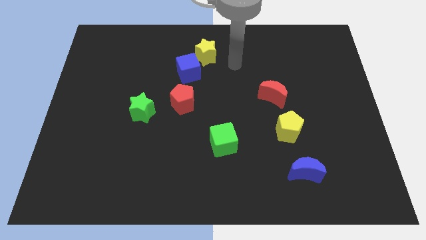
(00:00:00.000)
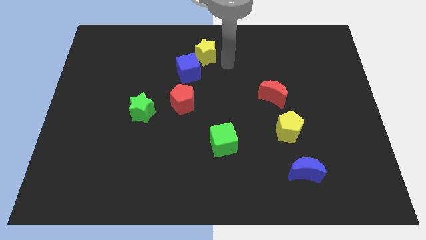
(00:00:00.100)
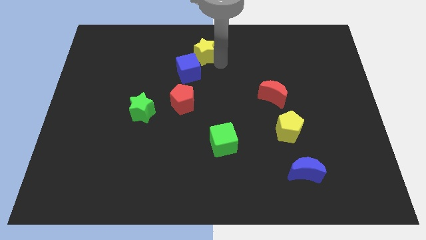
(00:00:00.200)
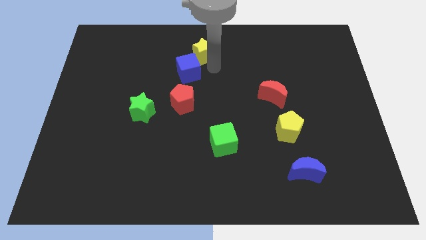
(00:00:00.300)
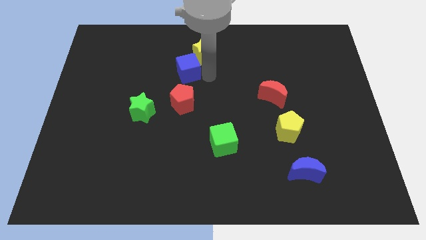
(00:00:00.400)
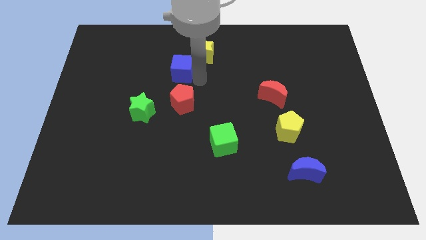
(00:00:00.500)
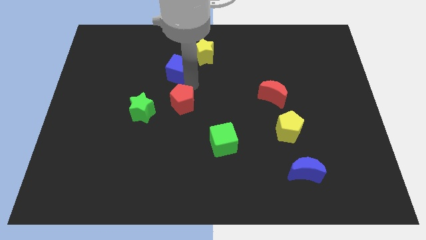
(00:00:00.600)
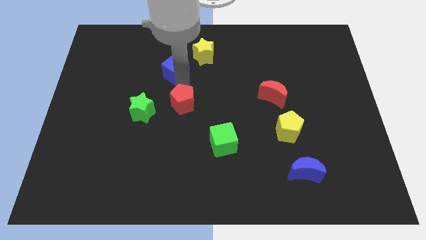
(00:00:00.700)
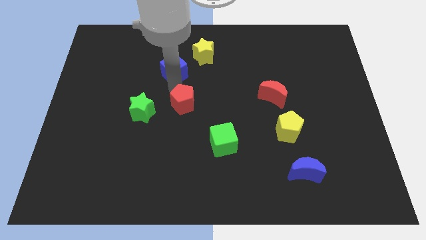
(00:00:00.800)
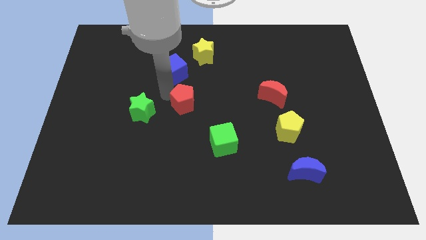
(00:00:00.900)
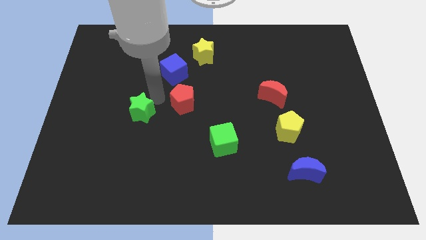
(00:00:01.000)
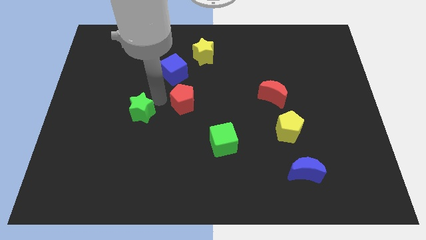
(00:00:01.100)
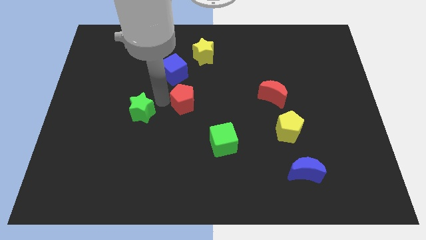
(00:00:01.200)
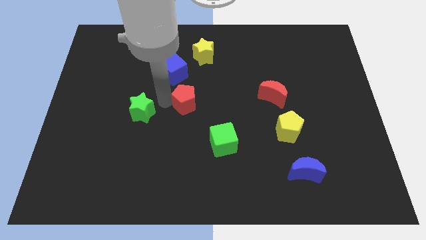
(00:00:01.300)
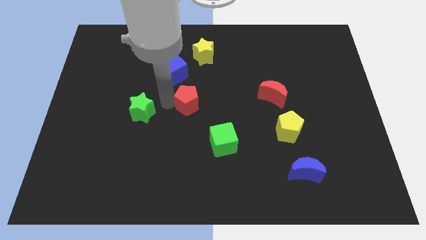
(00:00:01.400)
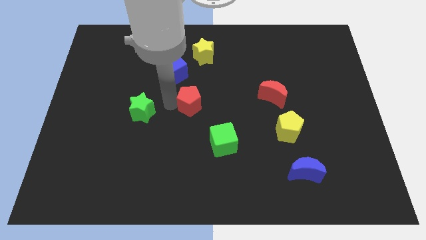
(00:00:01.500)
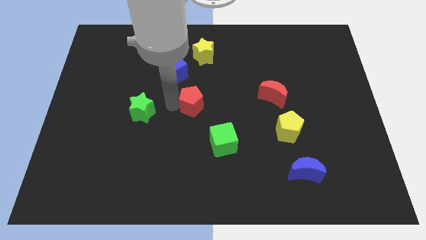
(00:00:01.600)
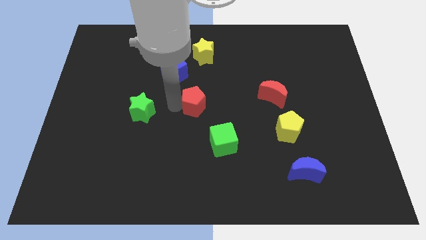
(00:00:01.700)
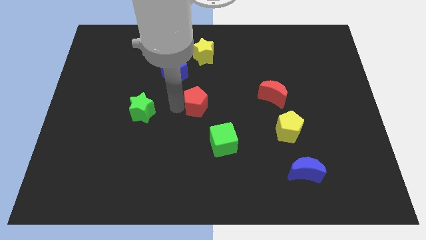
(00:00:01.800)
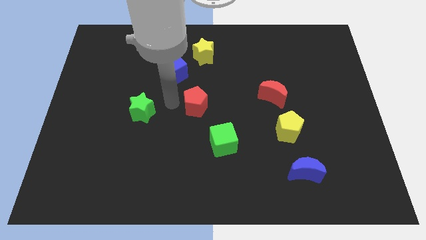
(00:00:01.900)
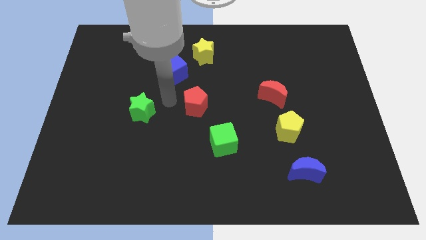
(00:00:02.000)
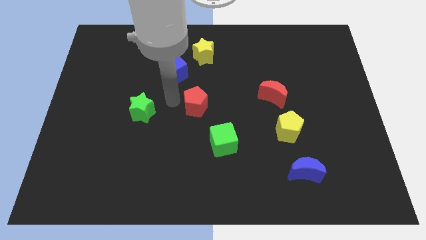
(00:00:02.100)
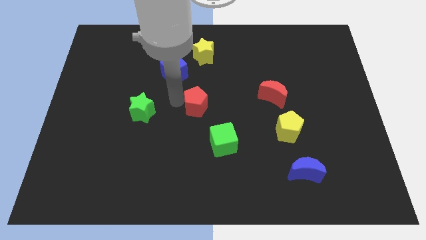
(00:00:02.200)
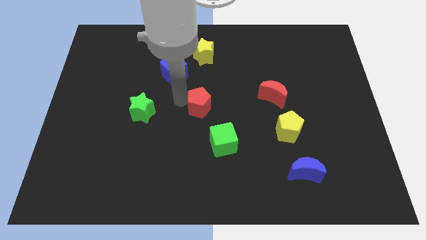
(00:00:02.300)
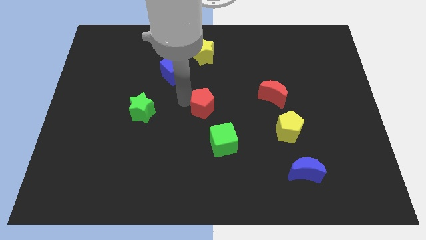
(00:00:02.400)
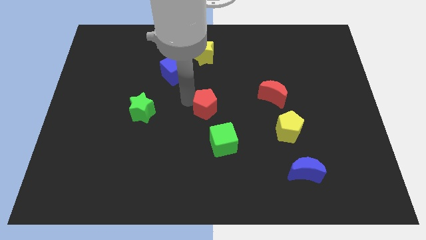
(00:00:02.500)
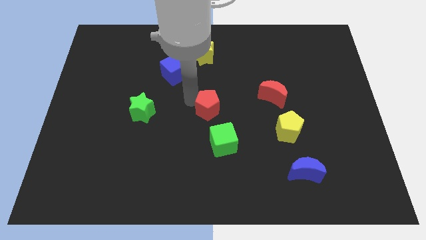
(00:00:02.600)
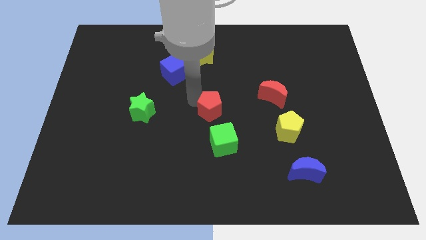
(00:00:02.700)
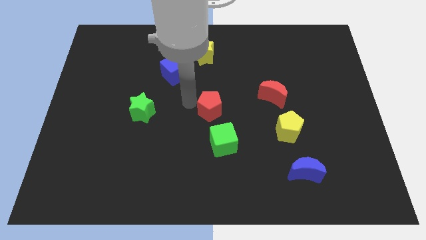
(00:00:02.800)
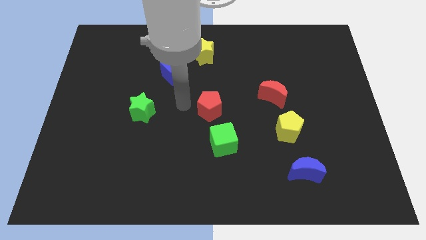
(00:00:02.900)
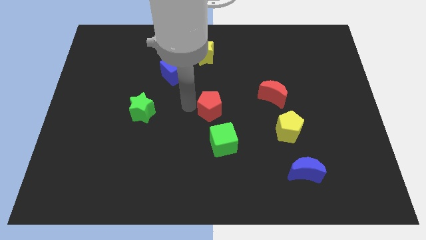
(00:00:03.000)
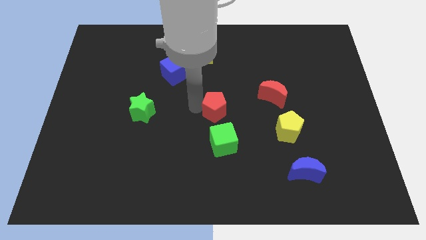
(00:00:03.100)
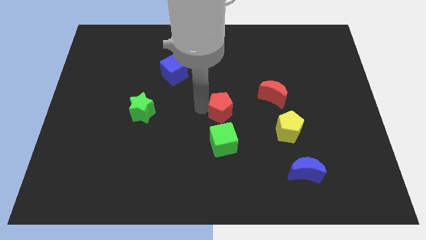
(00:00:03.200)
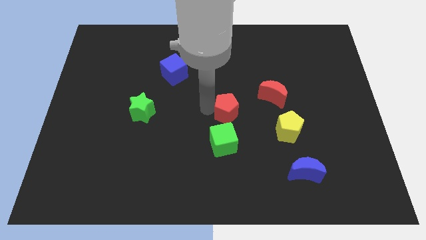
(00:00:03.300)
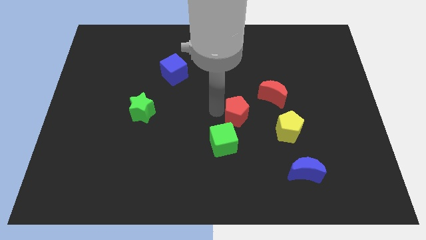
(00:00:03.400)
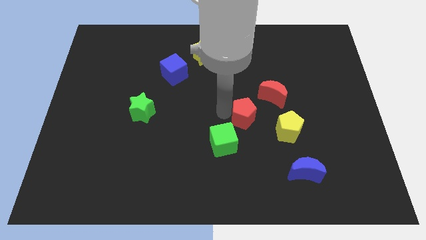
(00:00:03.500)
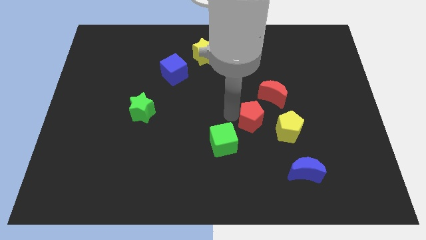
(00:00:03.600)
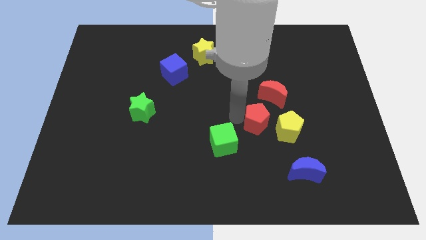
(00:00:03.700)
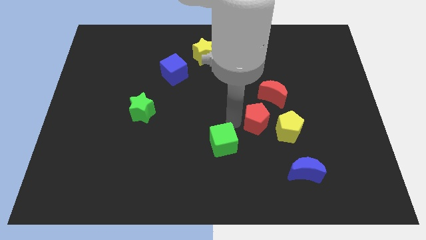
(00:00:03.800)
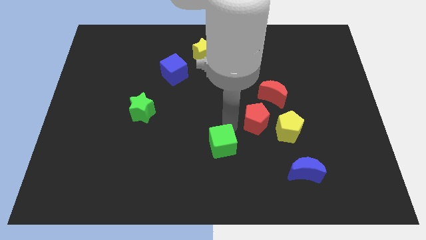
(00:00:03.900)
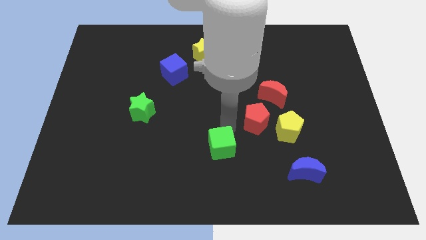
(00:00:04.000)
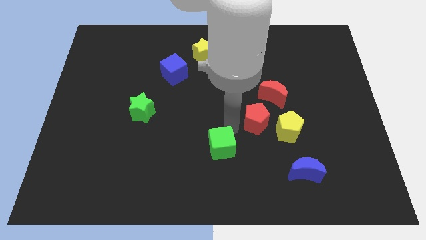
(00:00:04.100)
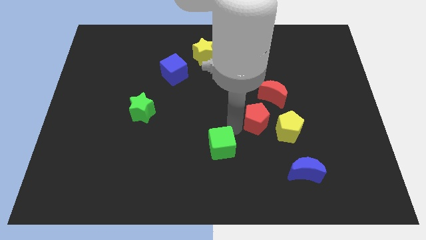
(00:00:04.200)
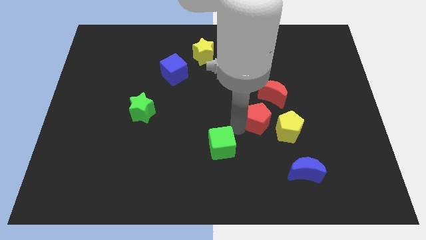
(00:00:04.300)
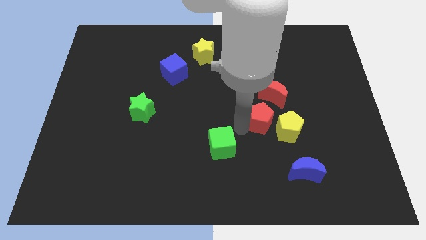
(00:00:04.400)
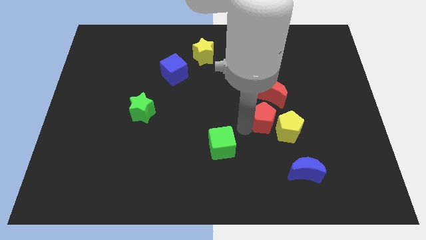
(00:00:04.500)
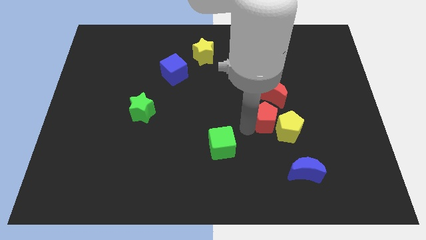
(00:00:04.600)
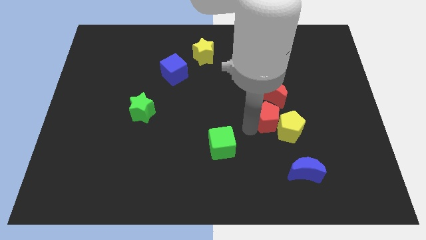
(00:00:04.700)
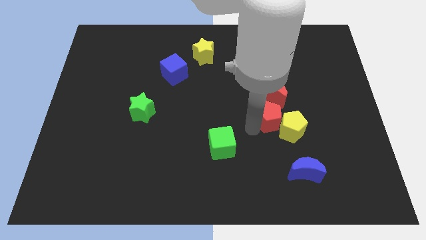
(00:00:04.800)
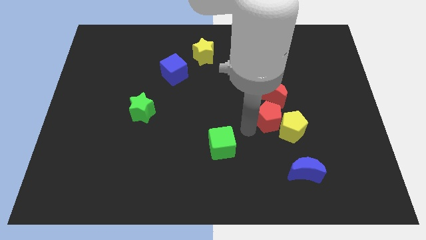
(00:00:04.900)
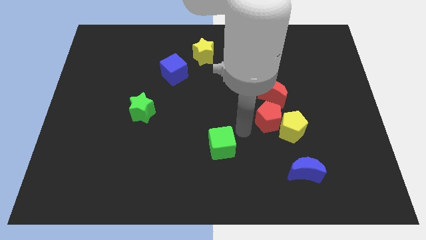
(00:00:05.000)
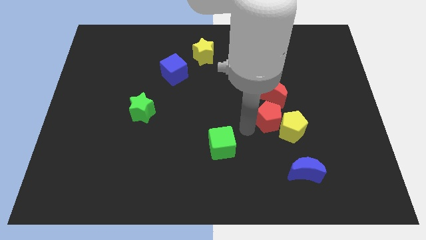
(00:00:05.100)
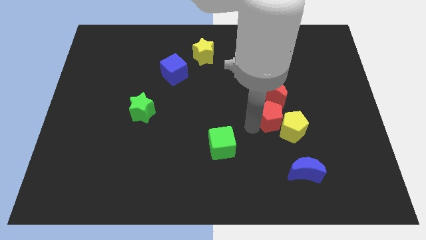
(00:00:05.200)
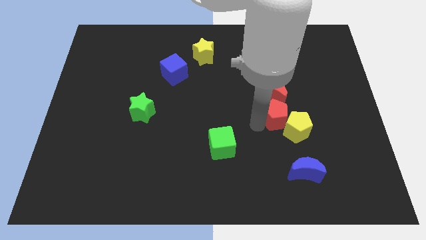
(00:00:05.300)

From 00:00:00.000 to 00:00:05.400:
push the red pentagon to the right

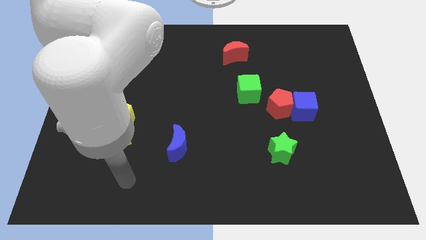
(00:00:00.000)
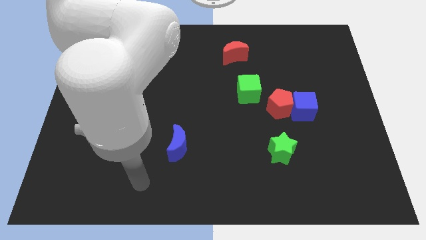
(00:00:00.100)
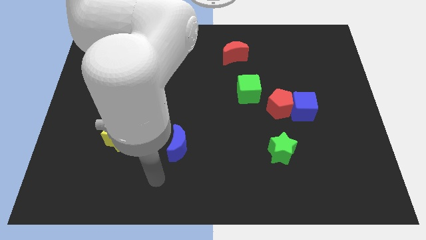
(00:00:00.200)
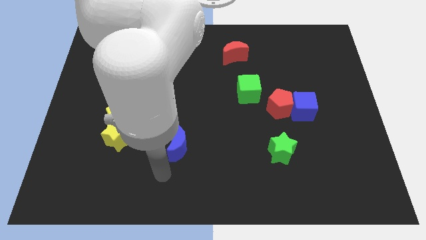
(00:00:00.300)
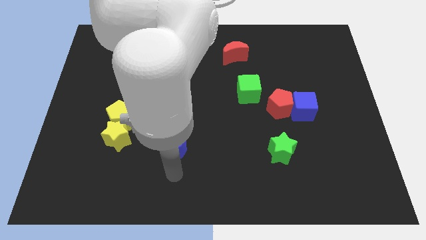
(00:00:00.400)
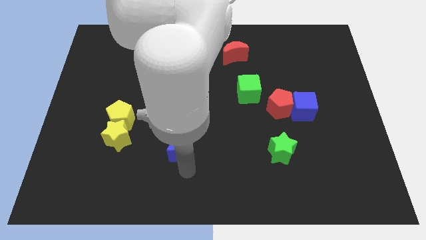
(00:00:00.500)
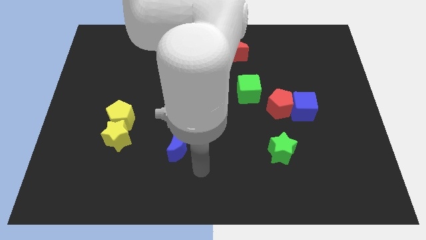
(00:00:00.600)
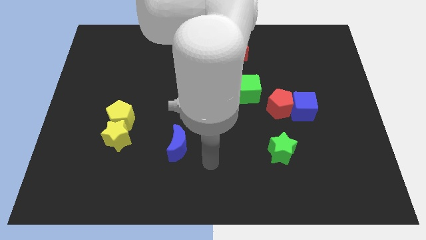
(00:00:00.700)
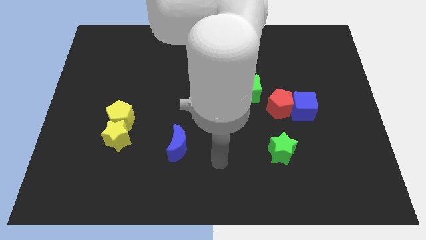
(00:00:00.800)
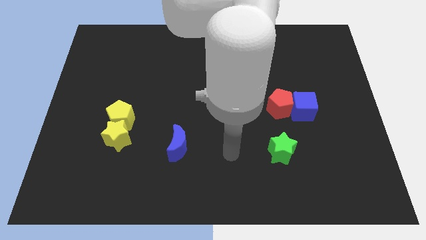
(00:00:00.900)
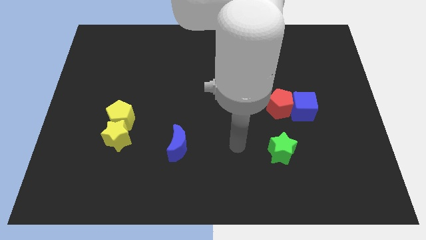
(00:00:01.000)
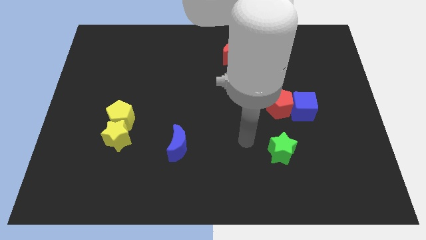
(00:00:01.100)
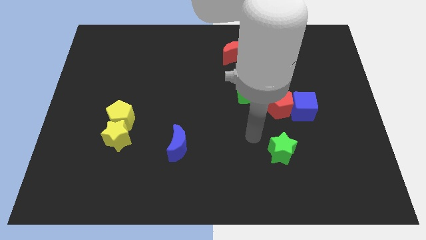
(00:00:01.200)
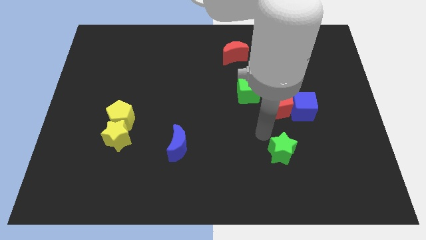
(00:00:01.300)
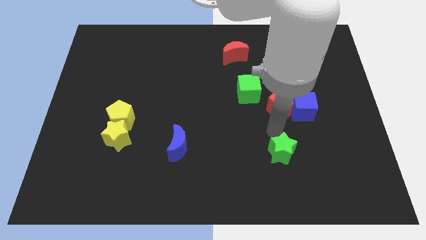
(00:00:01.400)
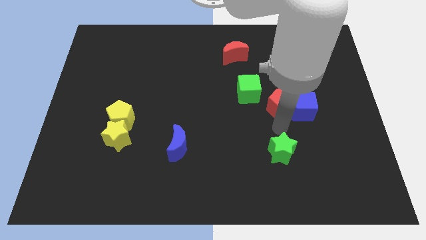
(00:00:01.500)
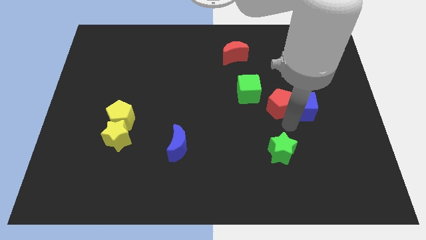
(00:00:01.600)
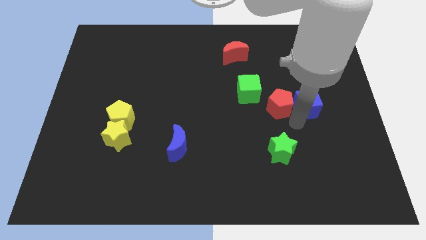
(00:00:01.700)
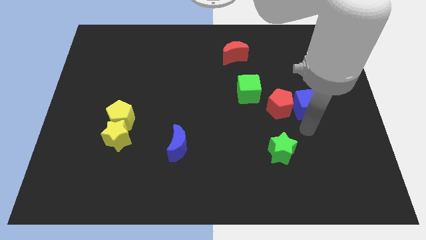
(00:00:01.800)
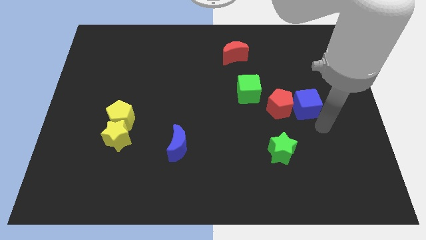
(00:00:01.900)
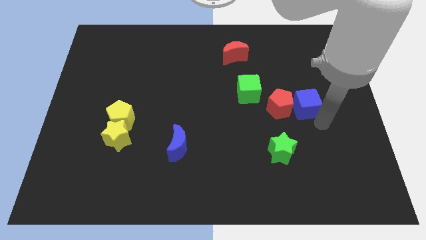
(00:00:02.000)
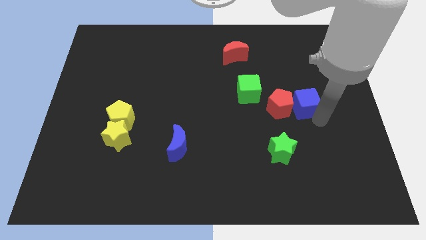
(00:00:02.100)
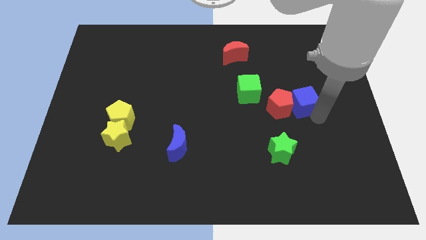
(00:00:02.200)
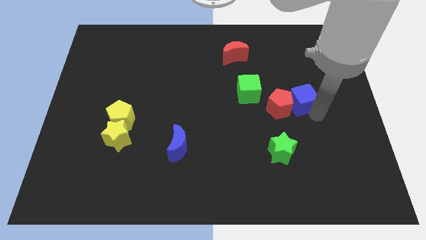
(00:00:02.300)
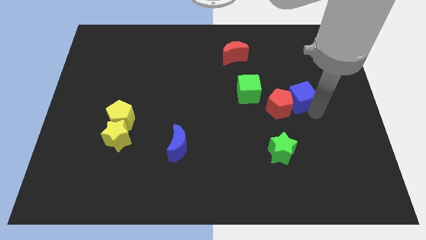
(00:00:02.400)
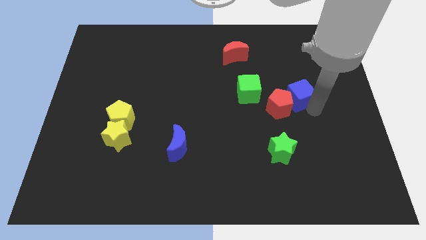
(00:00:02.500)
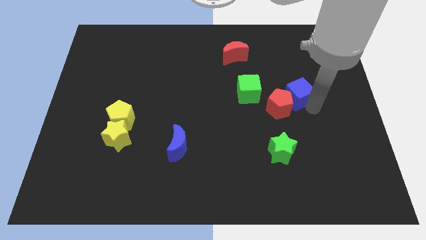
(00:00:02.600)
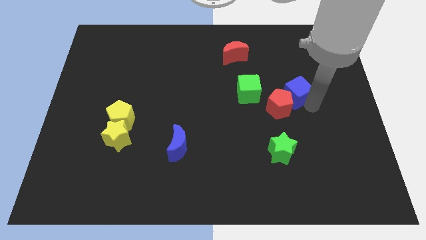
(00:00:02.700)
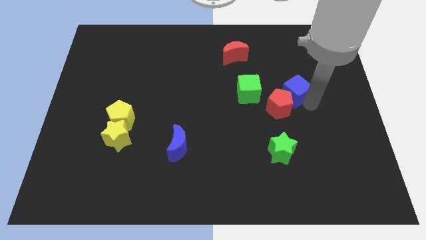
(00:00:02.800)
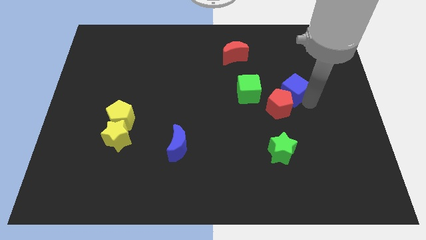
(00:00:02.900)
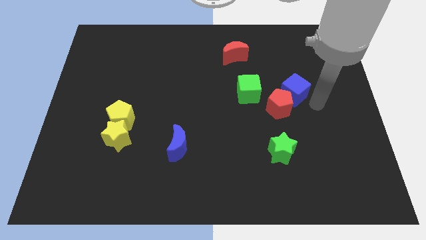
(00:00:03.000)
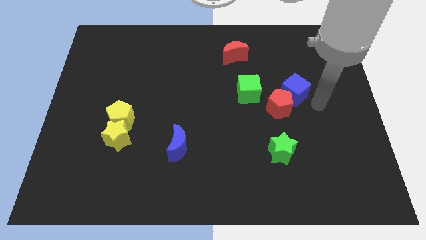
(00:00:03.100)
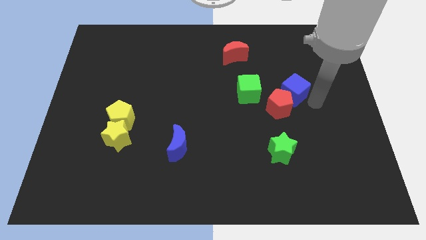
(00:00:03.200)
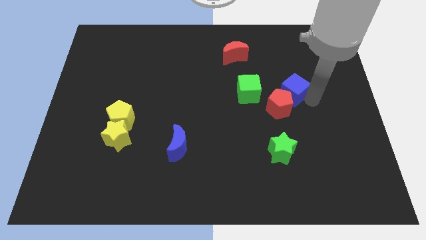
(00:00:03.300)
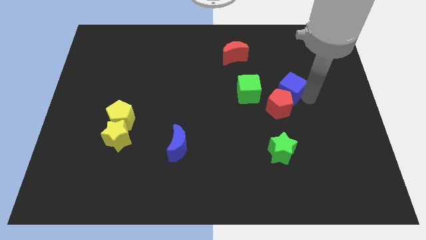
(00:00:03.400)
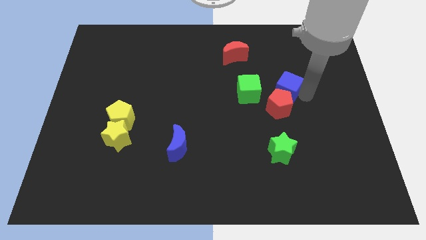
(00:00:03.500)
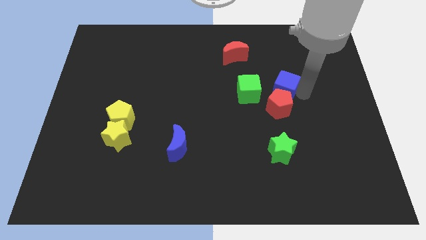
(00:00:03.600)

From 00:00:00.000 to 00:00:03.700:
slightly push the blue cube upwards and then left
